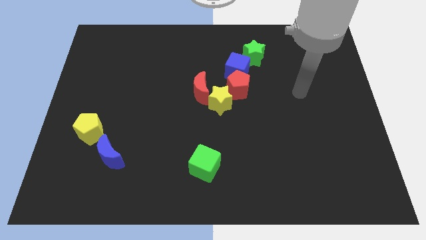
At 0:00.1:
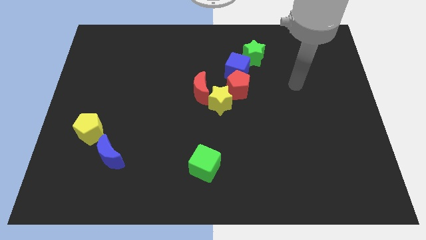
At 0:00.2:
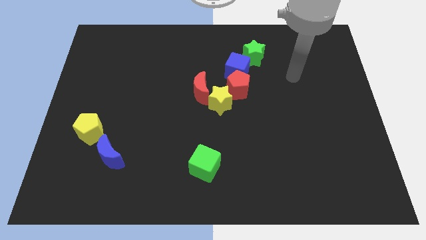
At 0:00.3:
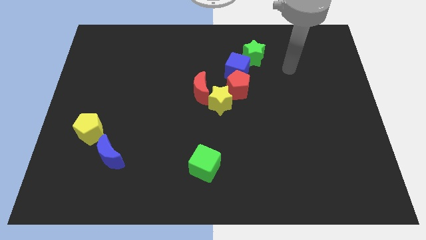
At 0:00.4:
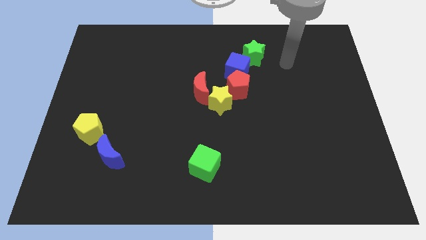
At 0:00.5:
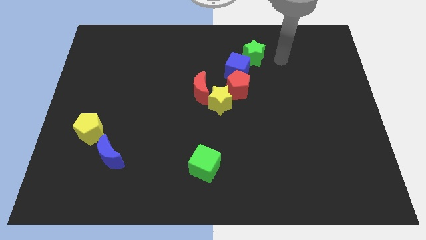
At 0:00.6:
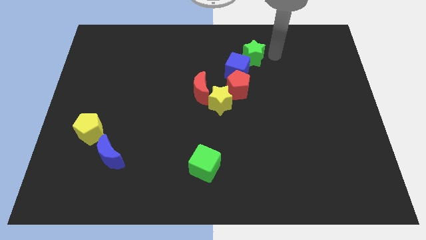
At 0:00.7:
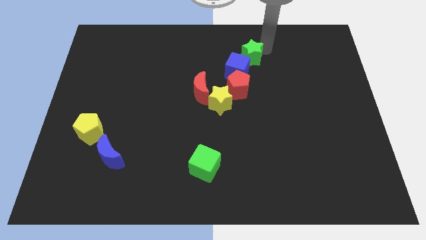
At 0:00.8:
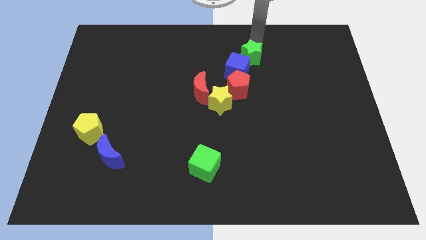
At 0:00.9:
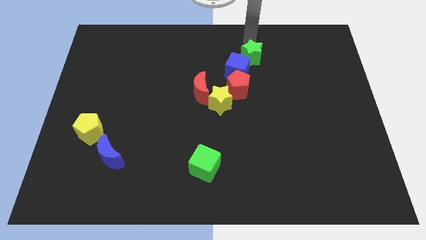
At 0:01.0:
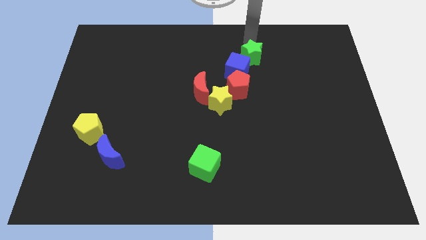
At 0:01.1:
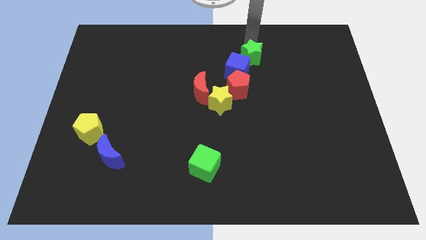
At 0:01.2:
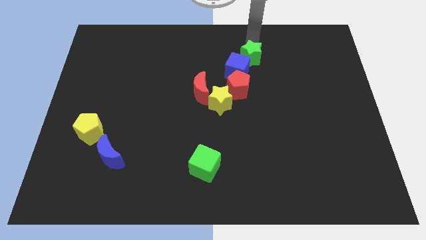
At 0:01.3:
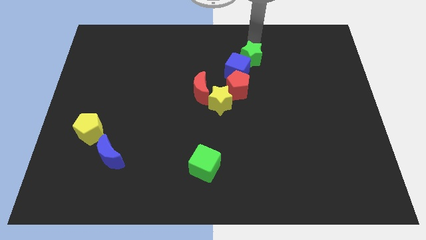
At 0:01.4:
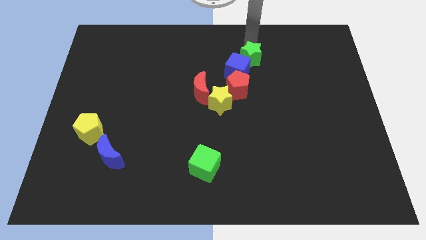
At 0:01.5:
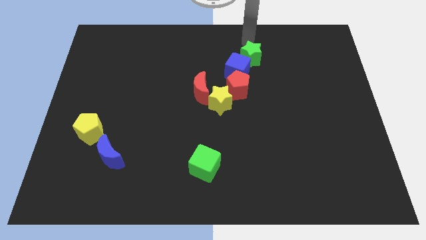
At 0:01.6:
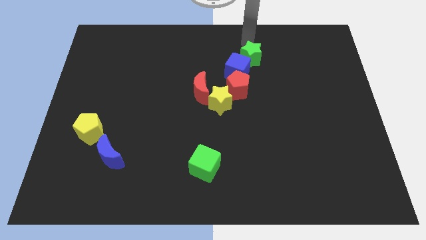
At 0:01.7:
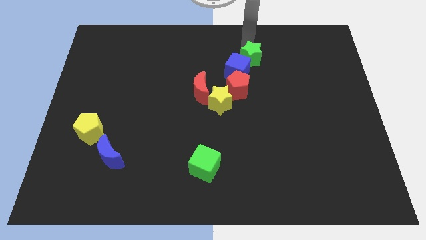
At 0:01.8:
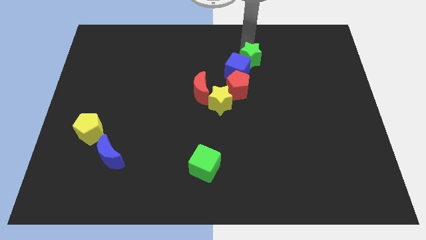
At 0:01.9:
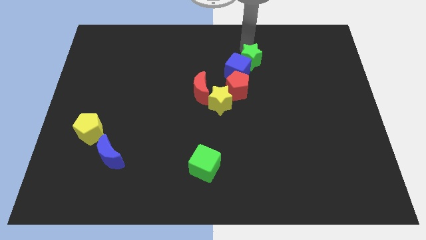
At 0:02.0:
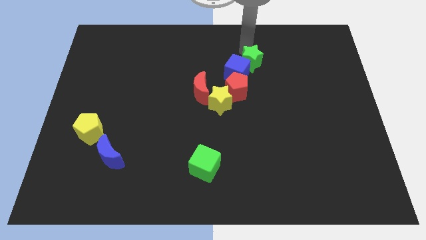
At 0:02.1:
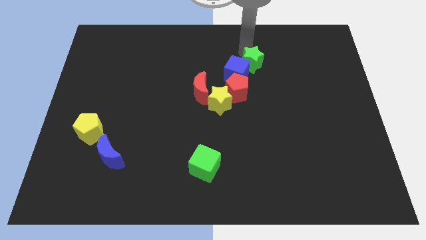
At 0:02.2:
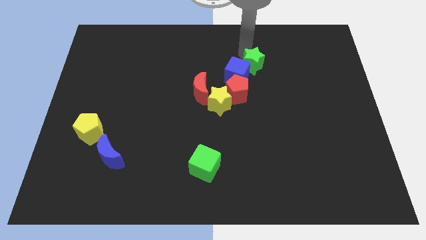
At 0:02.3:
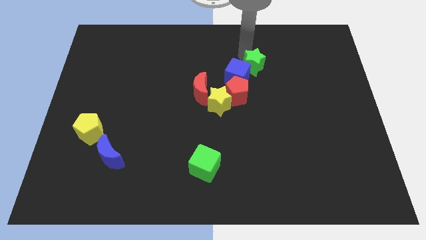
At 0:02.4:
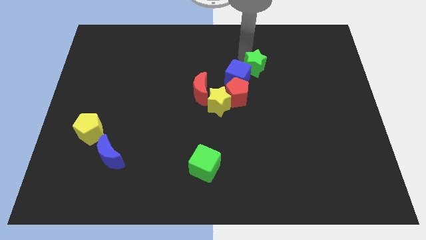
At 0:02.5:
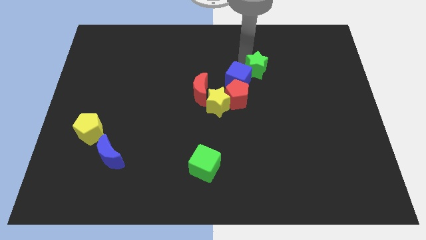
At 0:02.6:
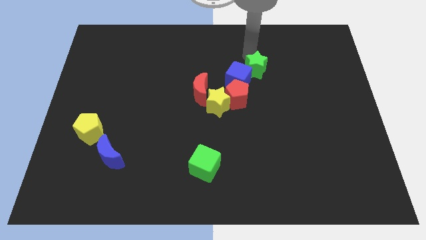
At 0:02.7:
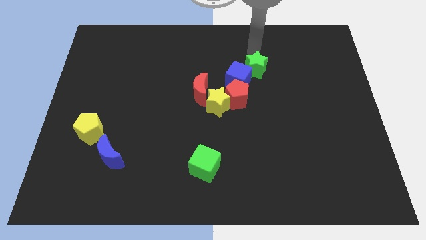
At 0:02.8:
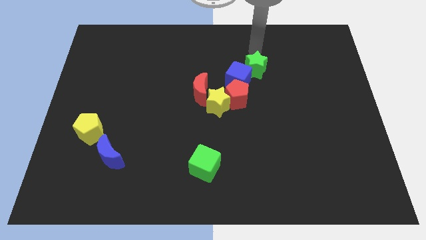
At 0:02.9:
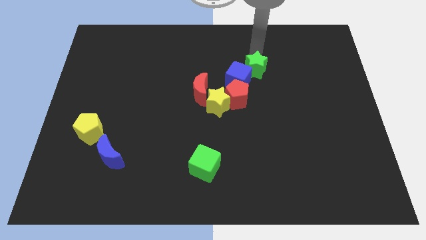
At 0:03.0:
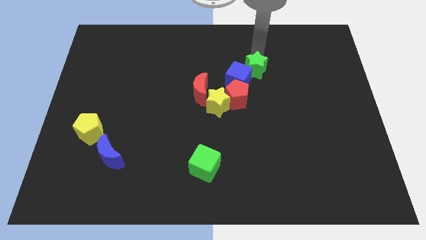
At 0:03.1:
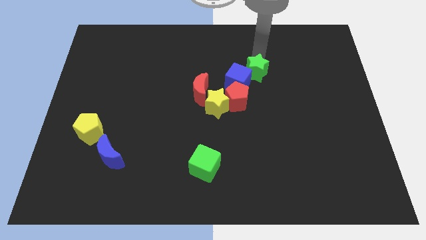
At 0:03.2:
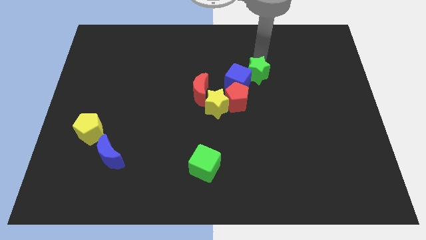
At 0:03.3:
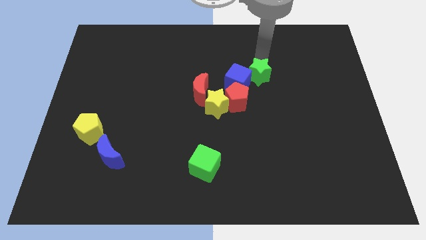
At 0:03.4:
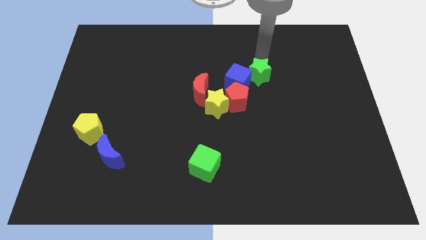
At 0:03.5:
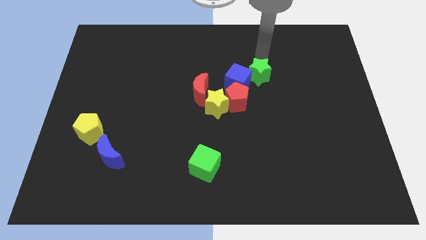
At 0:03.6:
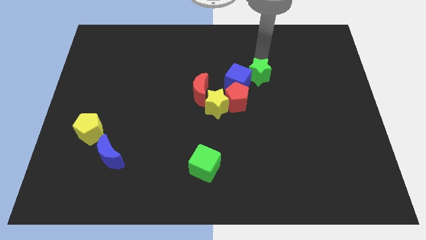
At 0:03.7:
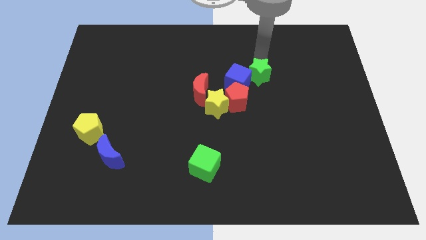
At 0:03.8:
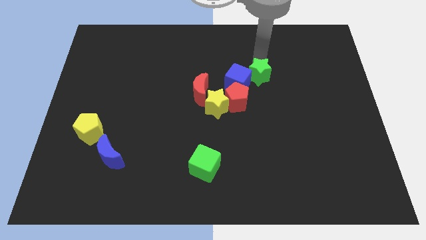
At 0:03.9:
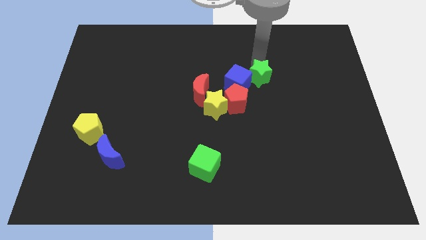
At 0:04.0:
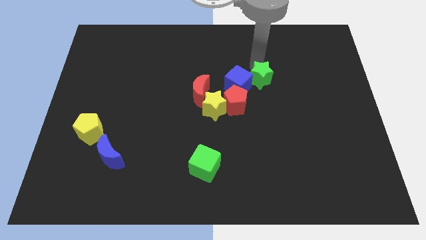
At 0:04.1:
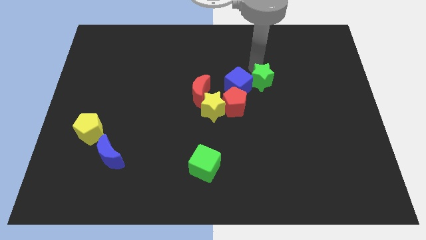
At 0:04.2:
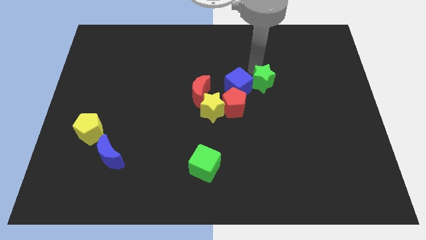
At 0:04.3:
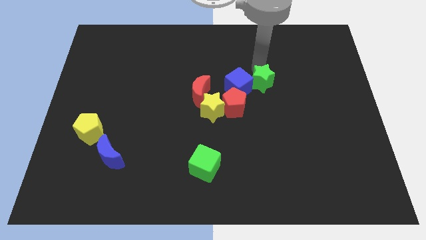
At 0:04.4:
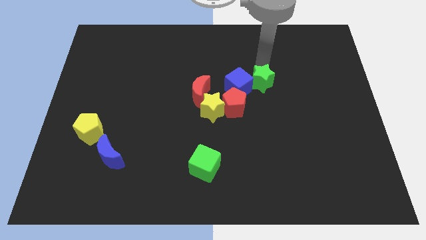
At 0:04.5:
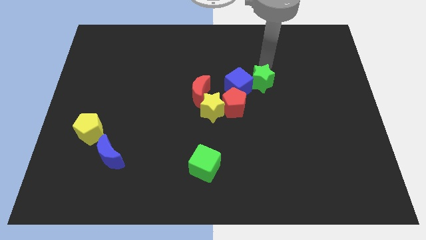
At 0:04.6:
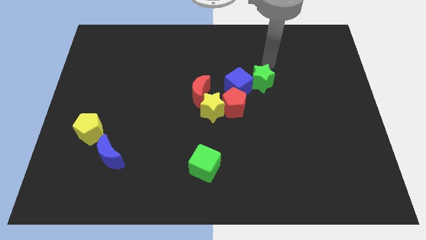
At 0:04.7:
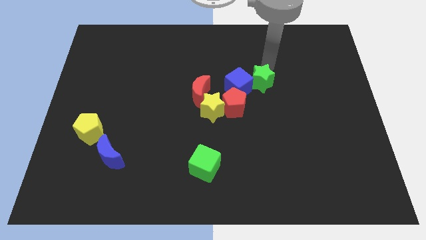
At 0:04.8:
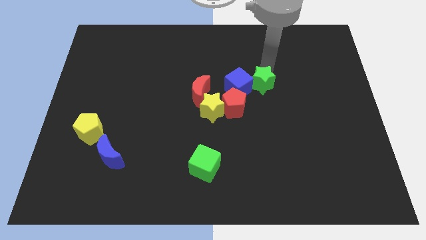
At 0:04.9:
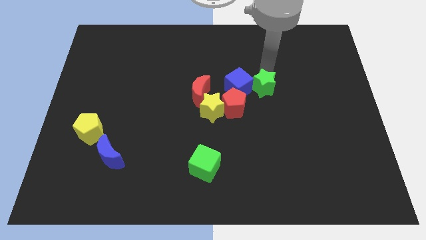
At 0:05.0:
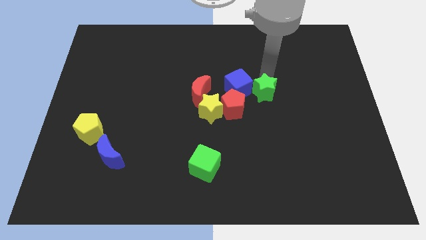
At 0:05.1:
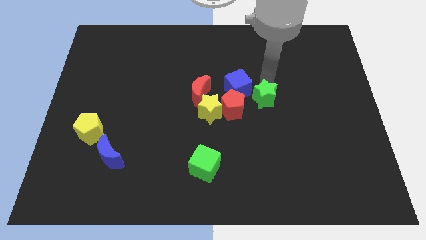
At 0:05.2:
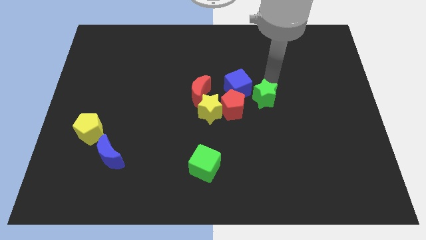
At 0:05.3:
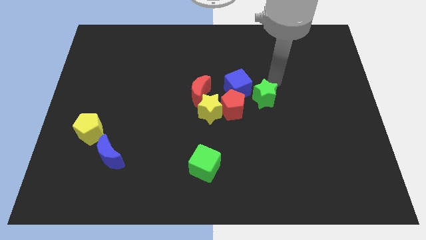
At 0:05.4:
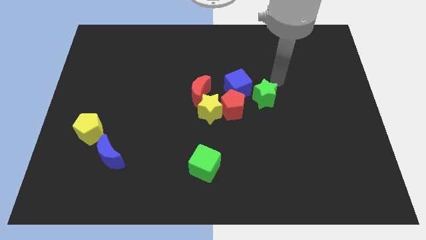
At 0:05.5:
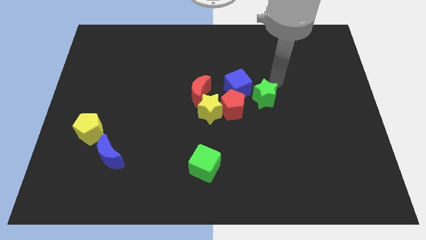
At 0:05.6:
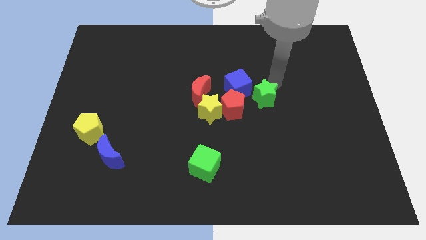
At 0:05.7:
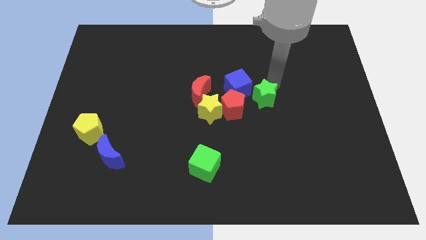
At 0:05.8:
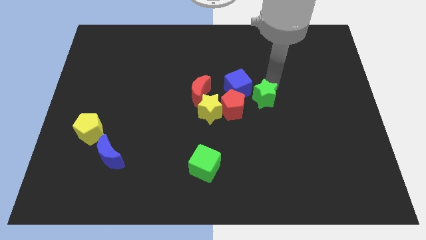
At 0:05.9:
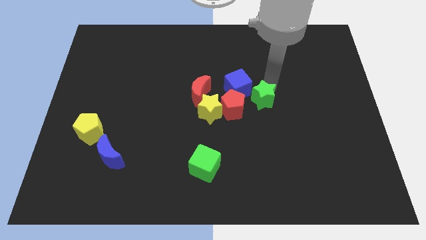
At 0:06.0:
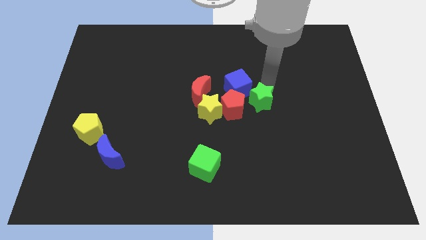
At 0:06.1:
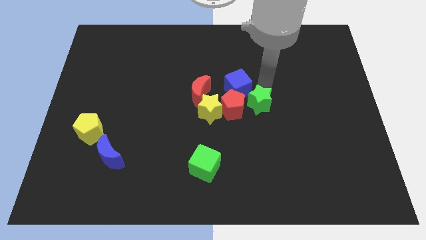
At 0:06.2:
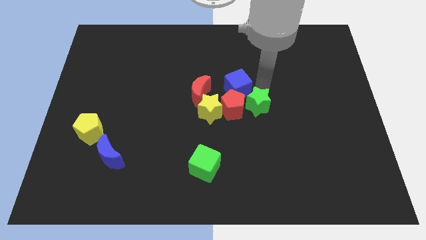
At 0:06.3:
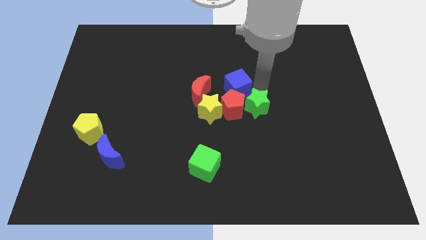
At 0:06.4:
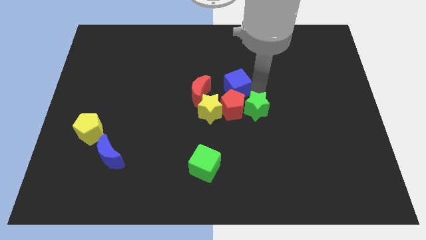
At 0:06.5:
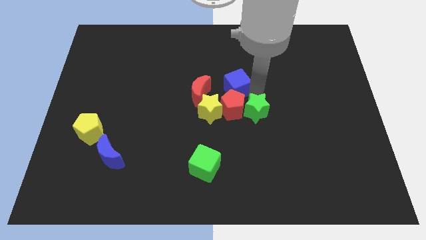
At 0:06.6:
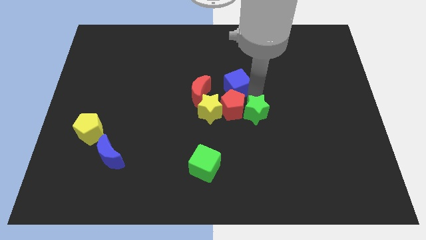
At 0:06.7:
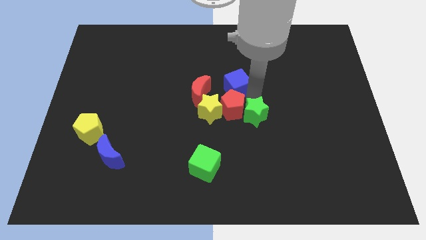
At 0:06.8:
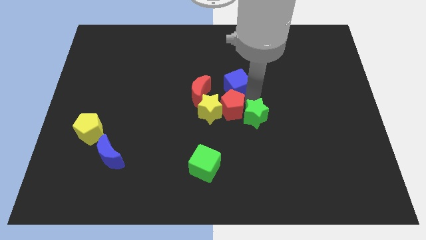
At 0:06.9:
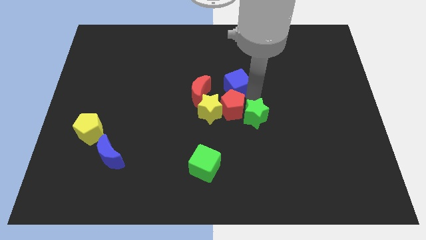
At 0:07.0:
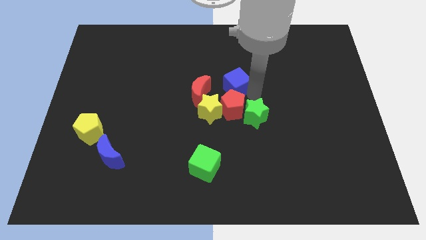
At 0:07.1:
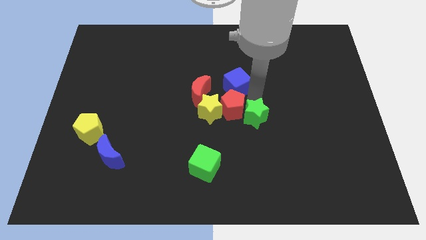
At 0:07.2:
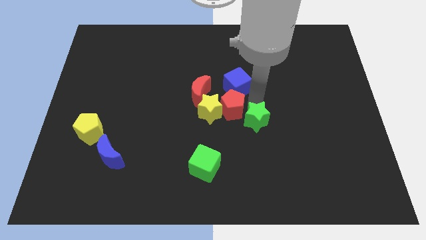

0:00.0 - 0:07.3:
slide the green star down

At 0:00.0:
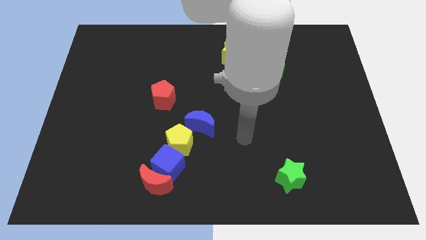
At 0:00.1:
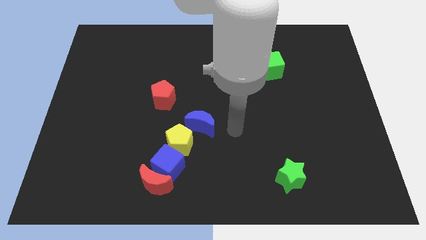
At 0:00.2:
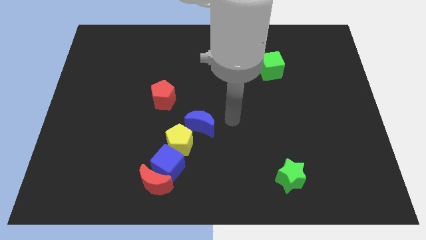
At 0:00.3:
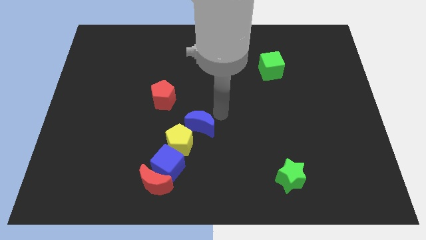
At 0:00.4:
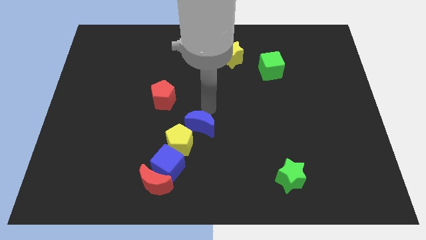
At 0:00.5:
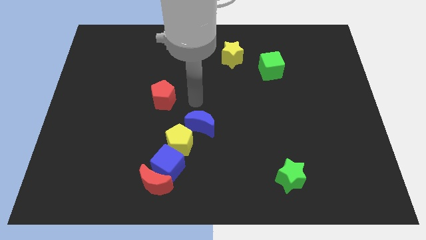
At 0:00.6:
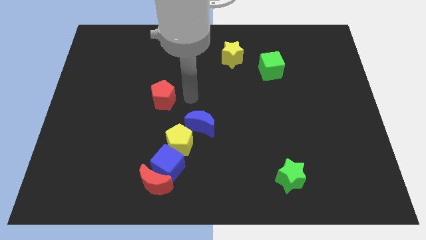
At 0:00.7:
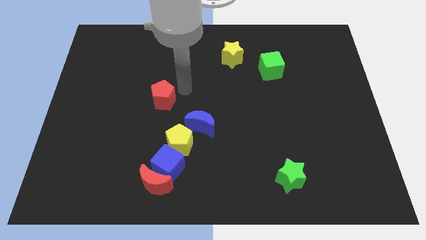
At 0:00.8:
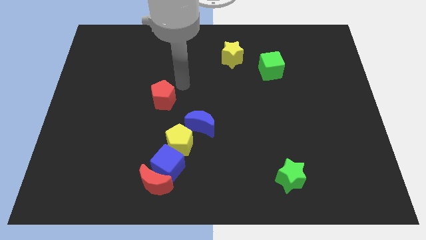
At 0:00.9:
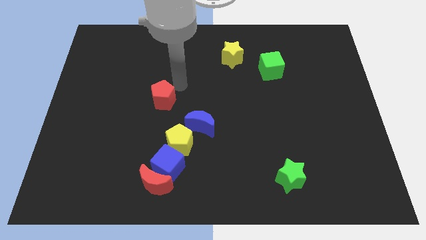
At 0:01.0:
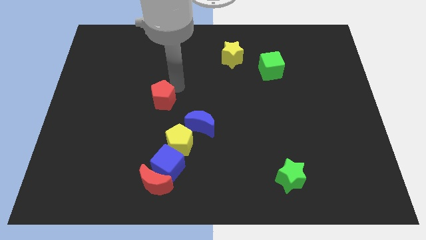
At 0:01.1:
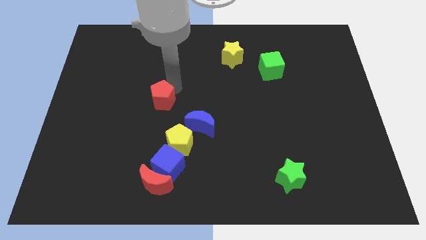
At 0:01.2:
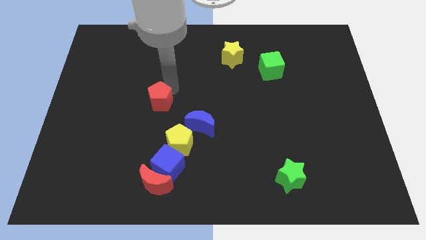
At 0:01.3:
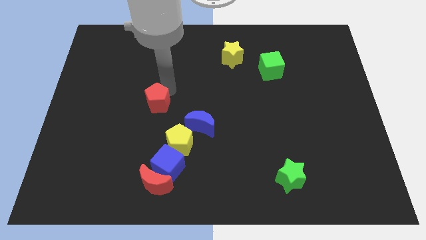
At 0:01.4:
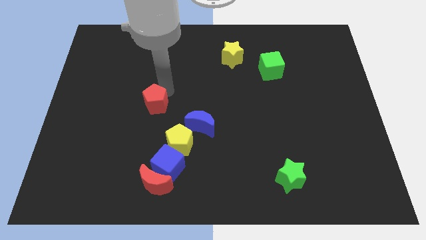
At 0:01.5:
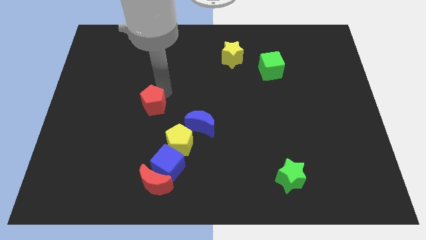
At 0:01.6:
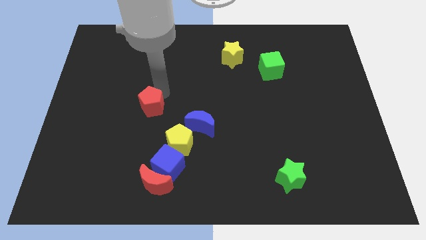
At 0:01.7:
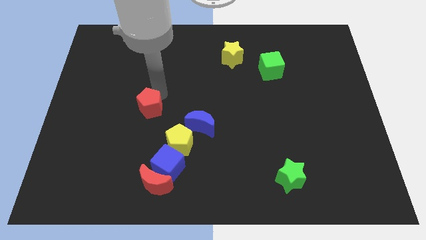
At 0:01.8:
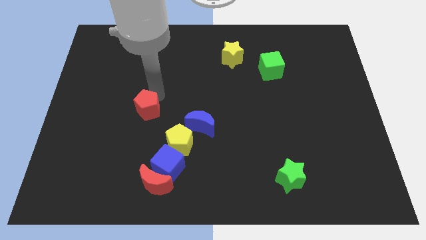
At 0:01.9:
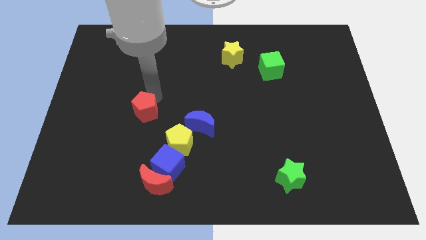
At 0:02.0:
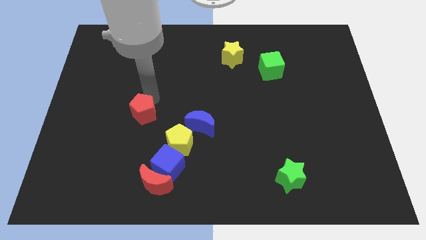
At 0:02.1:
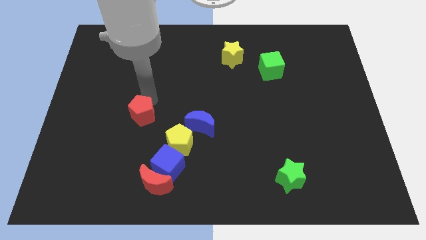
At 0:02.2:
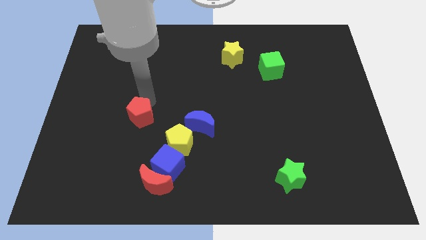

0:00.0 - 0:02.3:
slide the red pentagon downwards and to the left diagonally slightly
